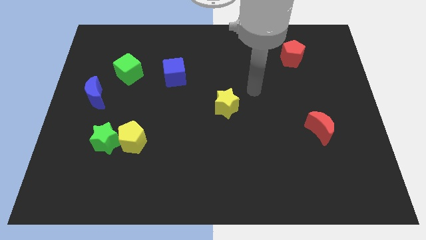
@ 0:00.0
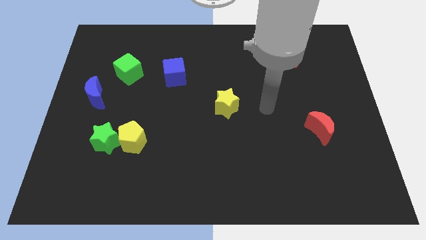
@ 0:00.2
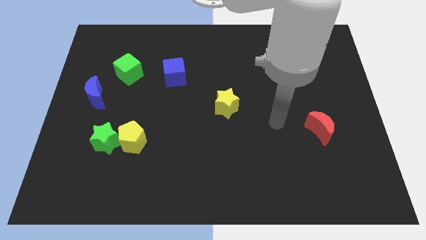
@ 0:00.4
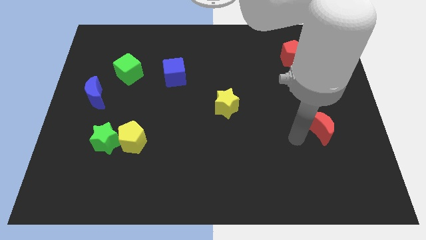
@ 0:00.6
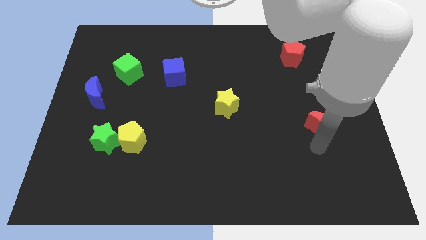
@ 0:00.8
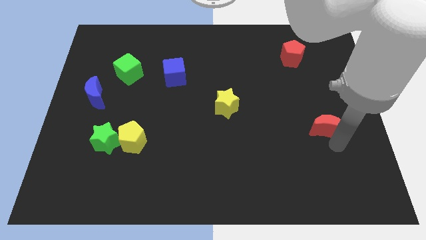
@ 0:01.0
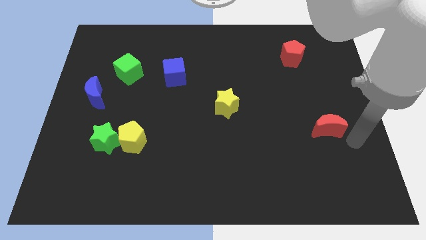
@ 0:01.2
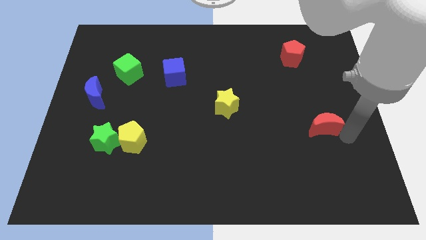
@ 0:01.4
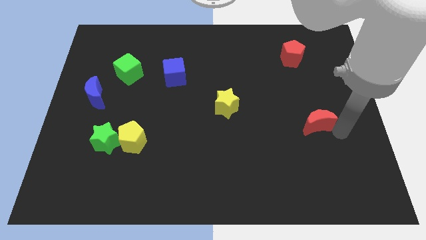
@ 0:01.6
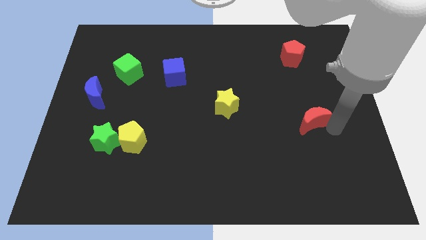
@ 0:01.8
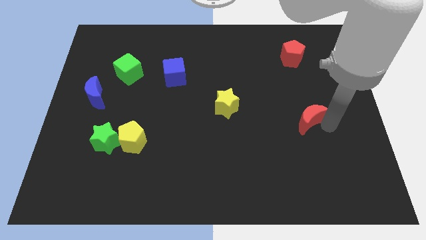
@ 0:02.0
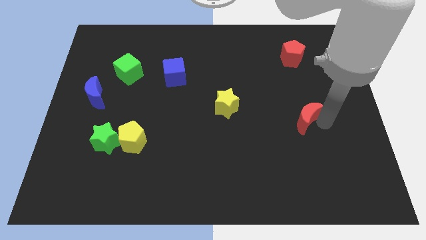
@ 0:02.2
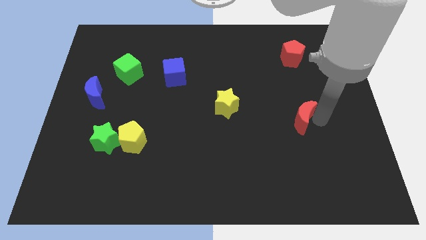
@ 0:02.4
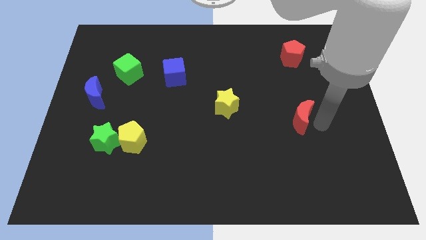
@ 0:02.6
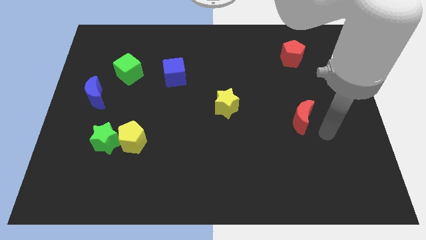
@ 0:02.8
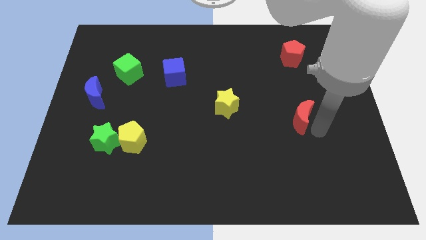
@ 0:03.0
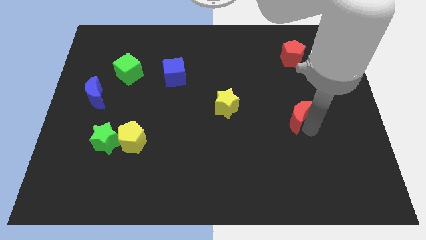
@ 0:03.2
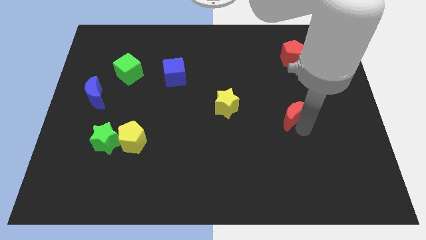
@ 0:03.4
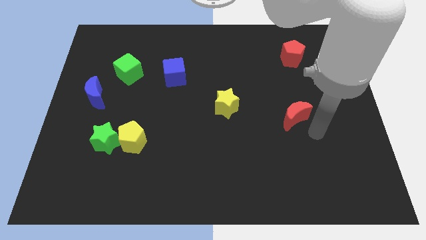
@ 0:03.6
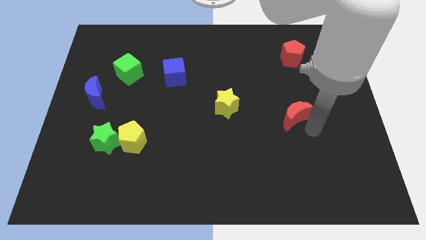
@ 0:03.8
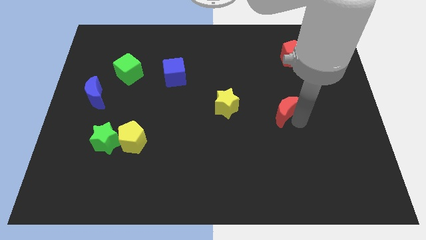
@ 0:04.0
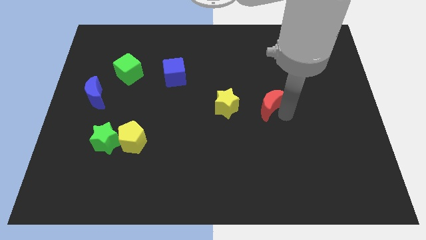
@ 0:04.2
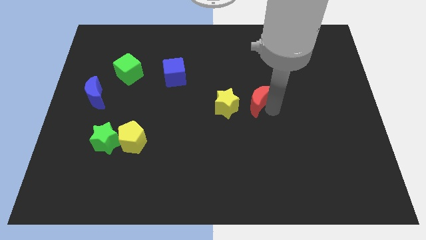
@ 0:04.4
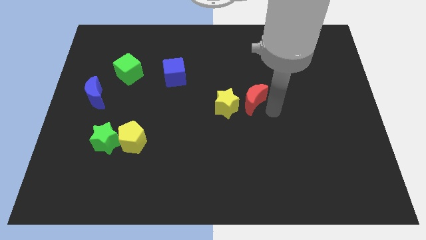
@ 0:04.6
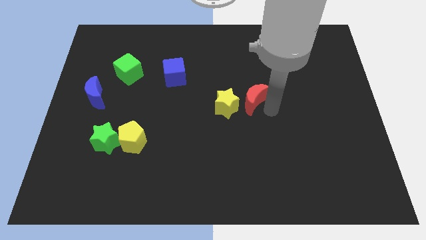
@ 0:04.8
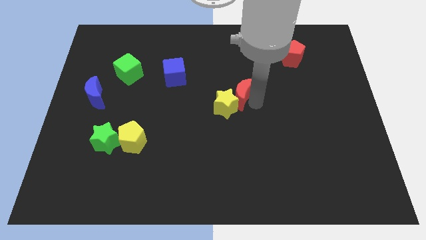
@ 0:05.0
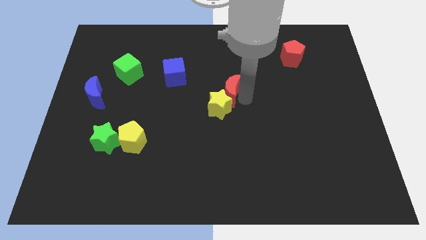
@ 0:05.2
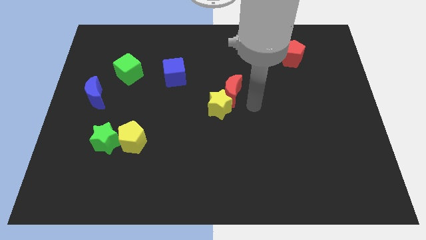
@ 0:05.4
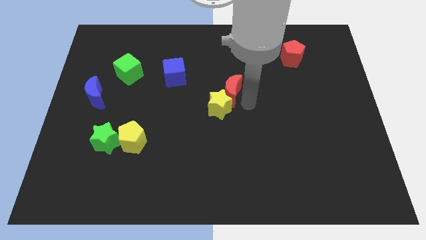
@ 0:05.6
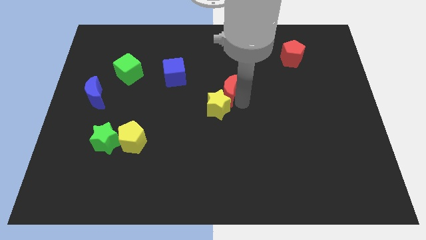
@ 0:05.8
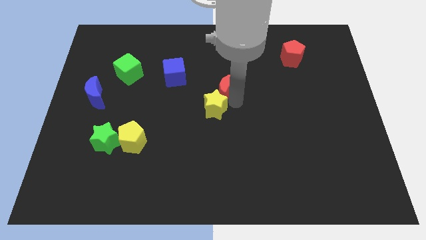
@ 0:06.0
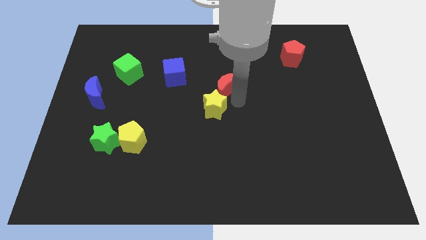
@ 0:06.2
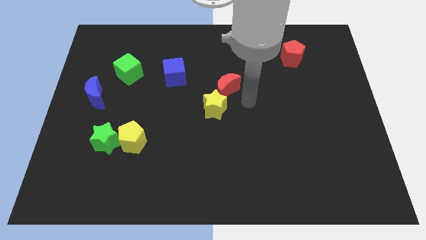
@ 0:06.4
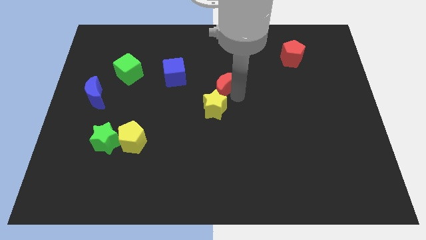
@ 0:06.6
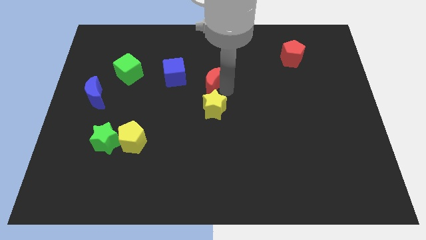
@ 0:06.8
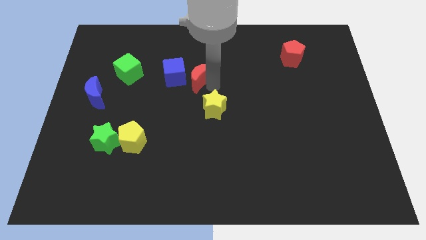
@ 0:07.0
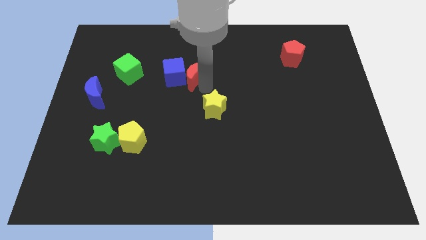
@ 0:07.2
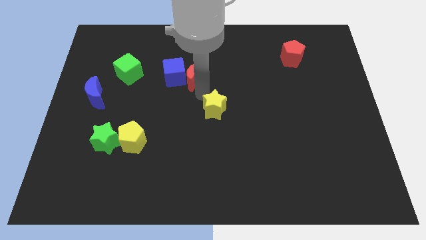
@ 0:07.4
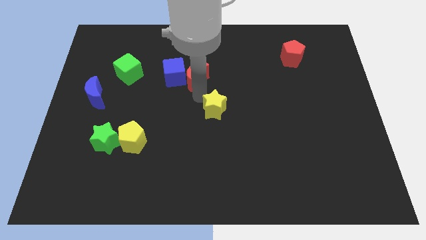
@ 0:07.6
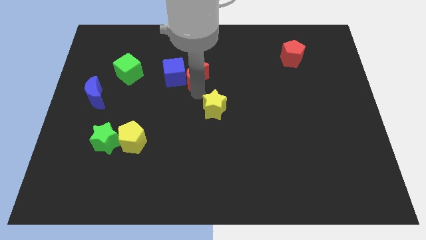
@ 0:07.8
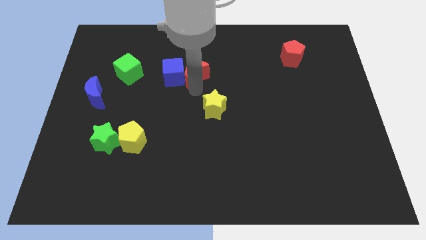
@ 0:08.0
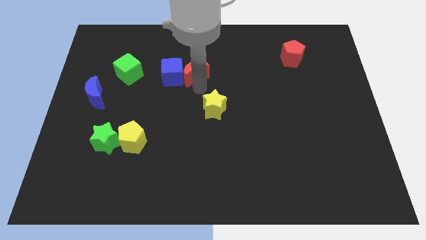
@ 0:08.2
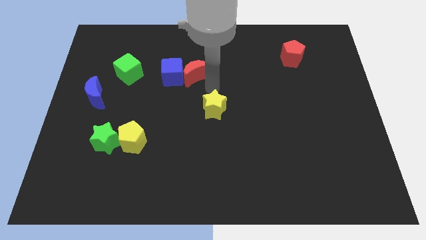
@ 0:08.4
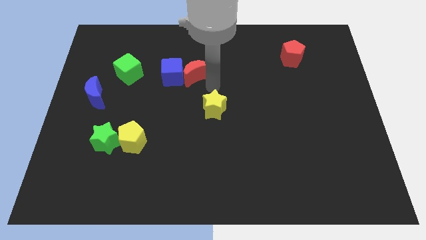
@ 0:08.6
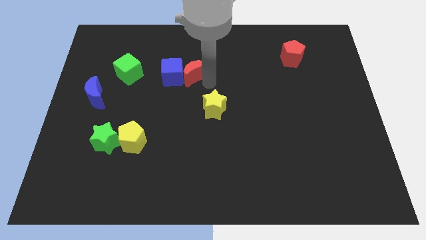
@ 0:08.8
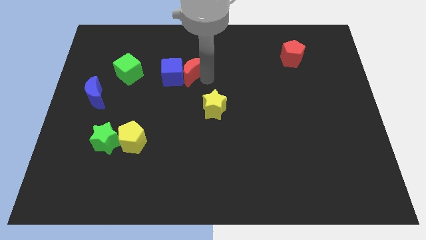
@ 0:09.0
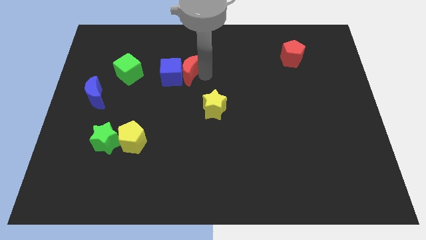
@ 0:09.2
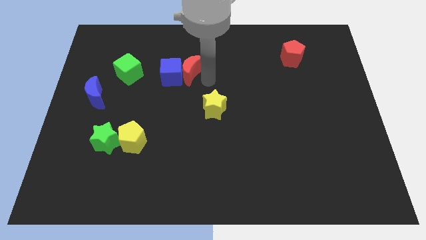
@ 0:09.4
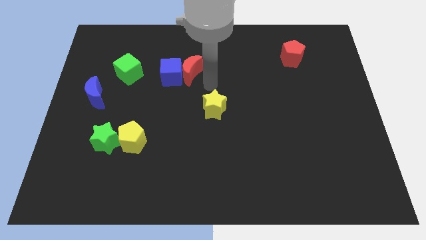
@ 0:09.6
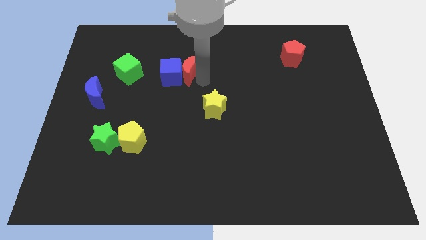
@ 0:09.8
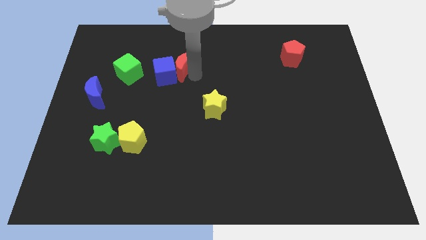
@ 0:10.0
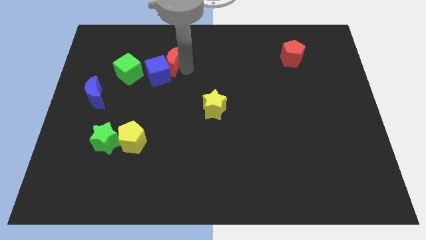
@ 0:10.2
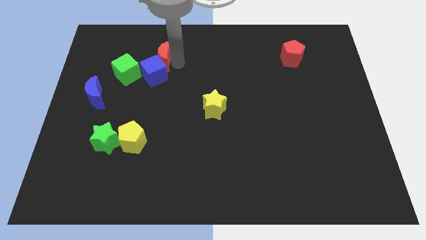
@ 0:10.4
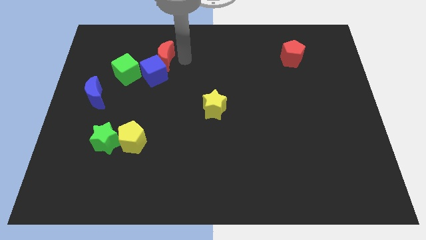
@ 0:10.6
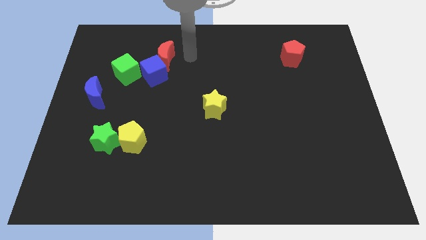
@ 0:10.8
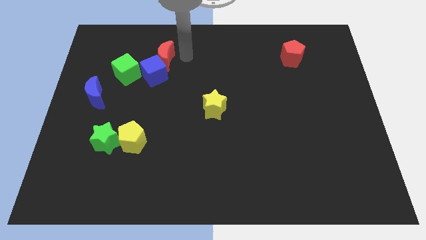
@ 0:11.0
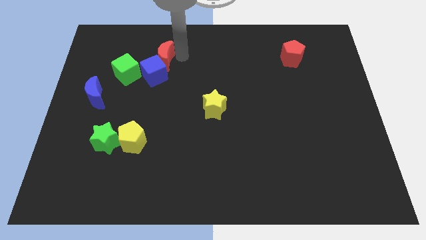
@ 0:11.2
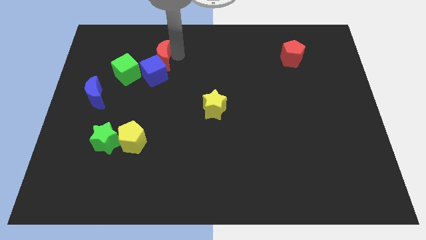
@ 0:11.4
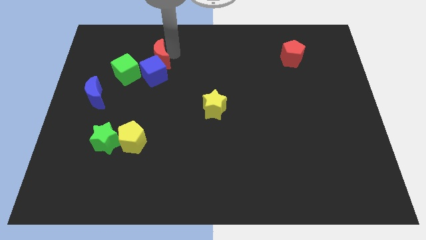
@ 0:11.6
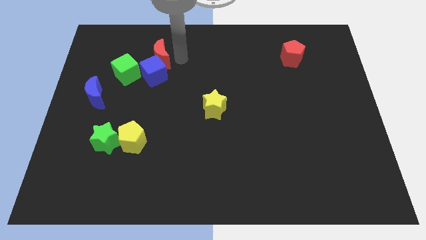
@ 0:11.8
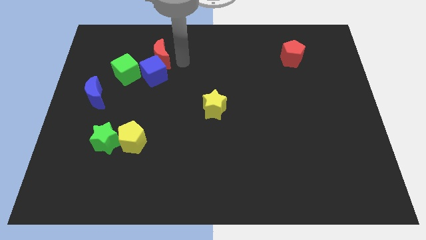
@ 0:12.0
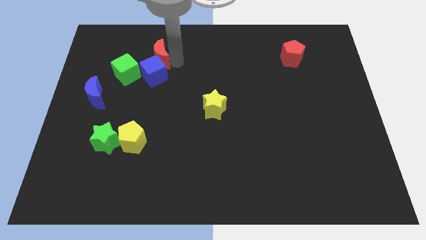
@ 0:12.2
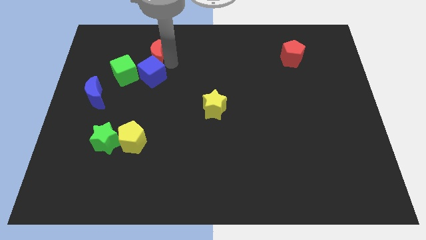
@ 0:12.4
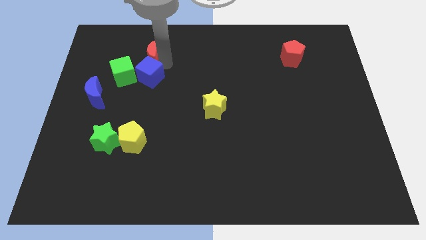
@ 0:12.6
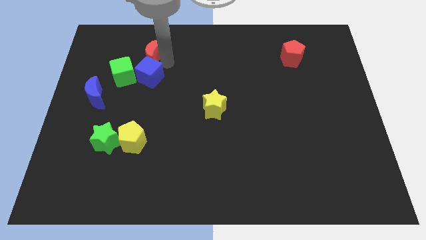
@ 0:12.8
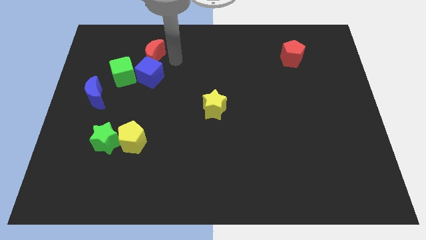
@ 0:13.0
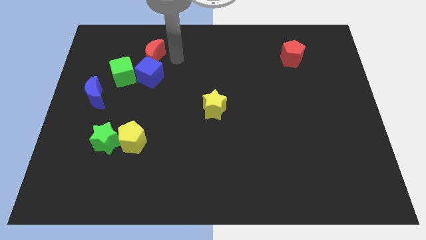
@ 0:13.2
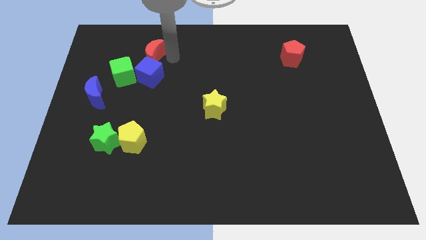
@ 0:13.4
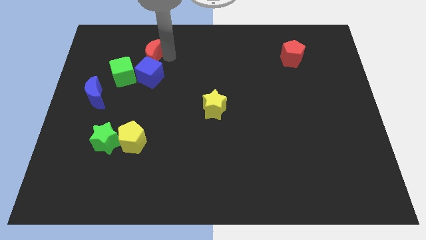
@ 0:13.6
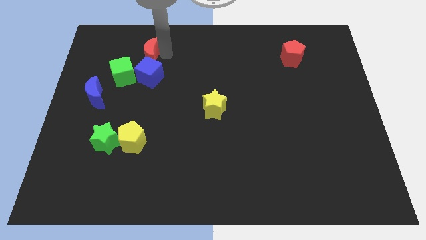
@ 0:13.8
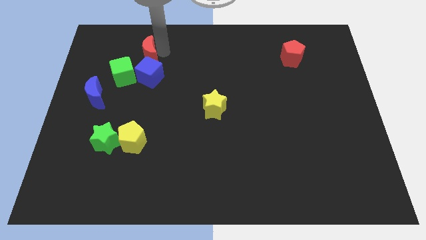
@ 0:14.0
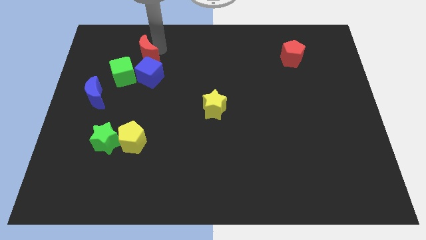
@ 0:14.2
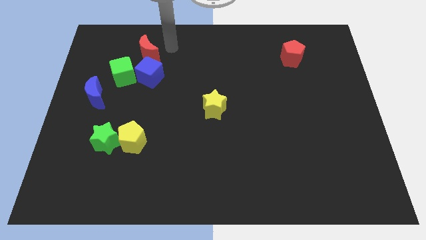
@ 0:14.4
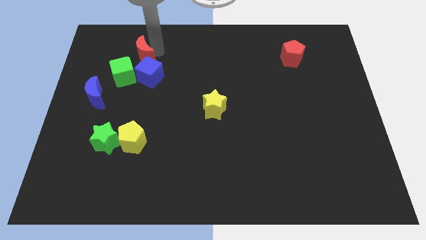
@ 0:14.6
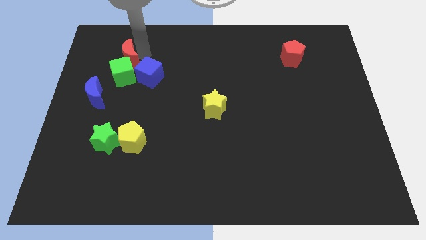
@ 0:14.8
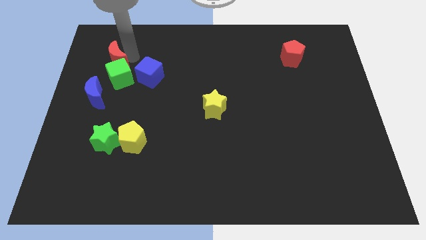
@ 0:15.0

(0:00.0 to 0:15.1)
push the red moon to the top of the blue moon
